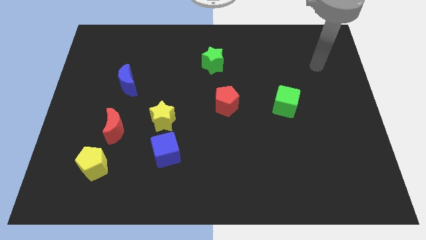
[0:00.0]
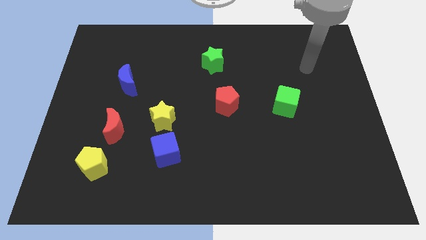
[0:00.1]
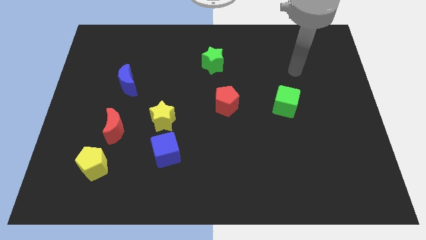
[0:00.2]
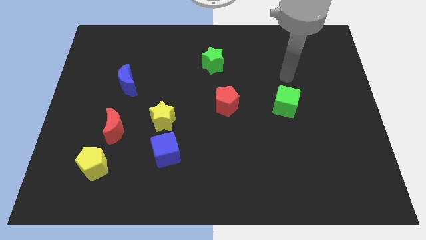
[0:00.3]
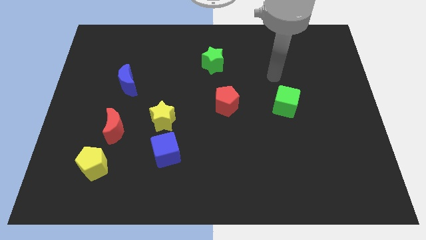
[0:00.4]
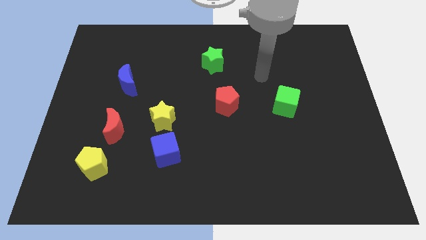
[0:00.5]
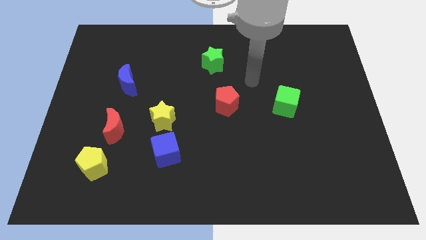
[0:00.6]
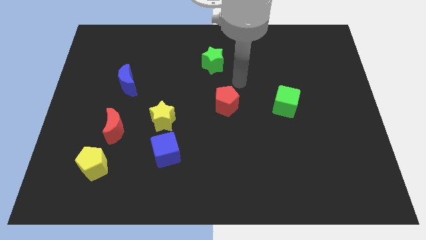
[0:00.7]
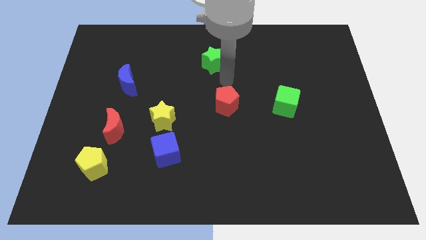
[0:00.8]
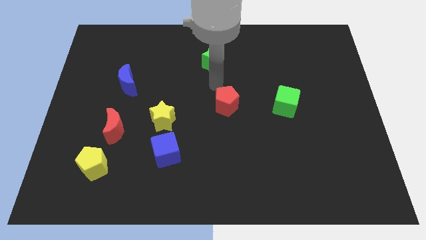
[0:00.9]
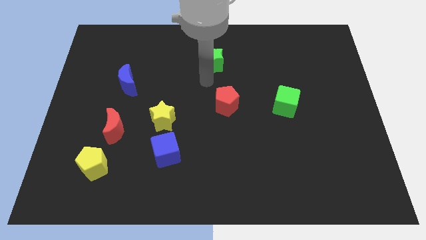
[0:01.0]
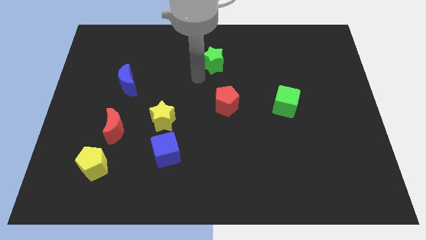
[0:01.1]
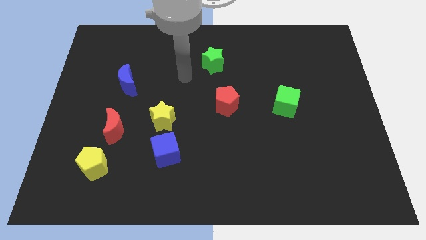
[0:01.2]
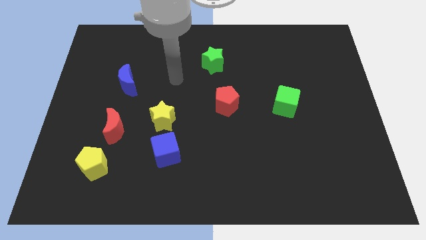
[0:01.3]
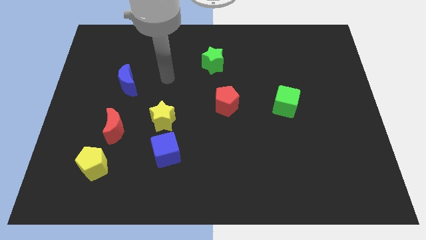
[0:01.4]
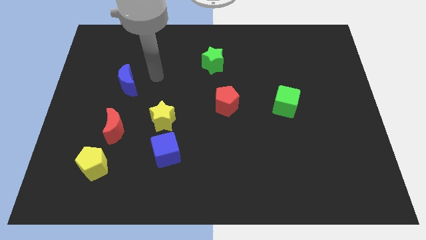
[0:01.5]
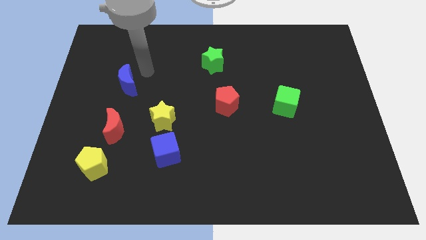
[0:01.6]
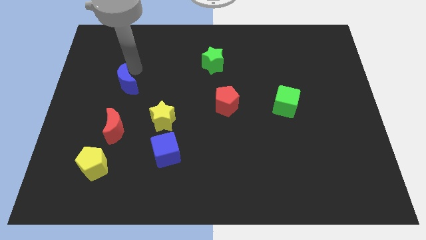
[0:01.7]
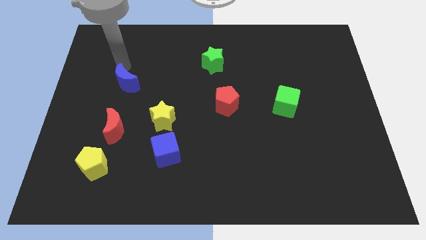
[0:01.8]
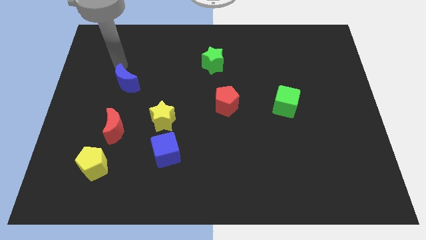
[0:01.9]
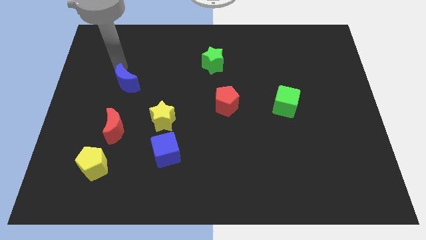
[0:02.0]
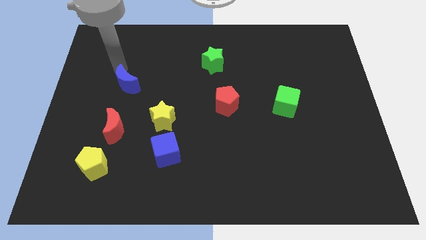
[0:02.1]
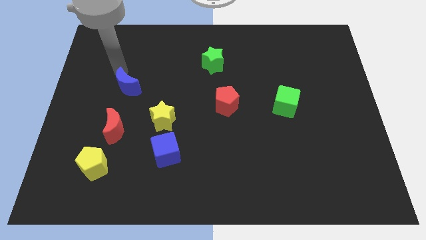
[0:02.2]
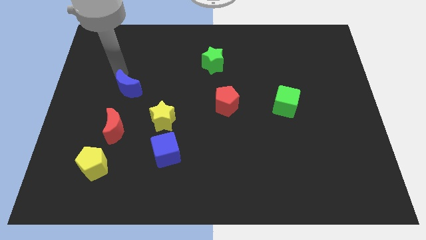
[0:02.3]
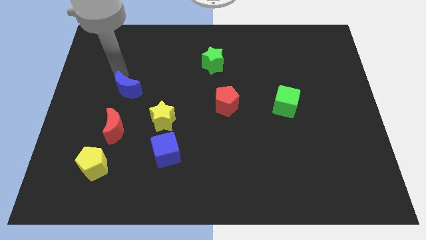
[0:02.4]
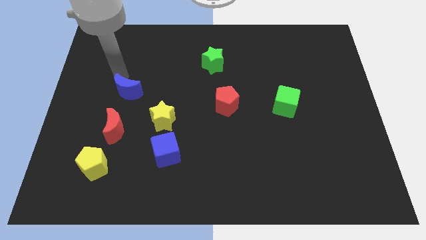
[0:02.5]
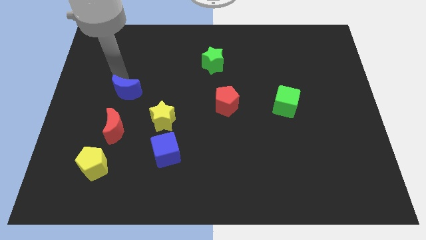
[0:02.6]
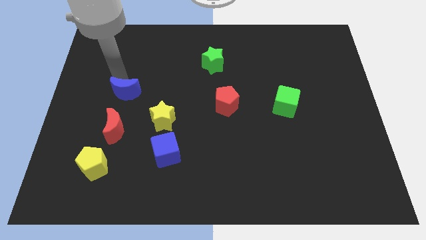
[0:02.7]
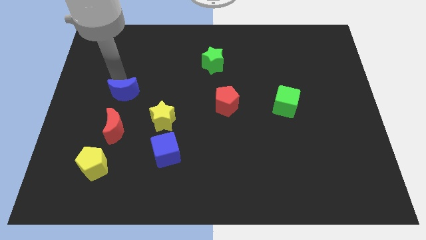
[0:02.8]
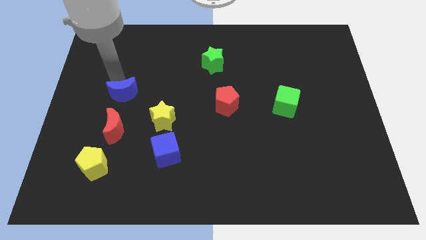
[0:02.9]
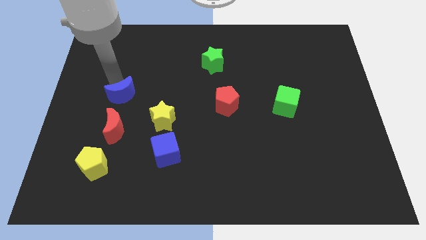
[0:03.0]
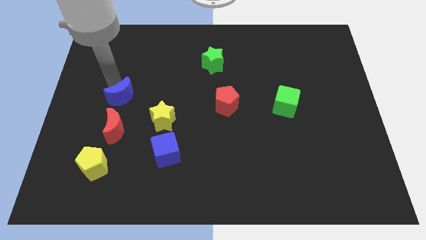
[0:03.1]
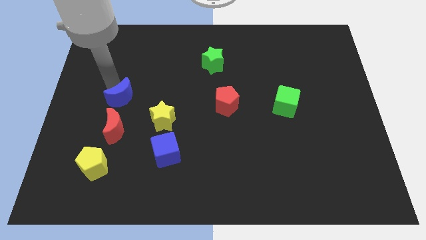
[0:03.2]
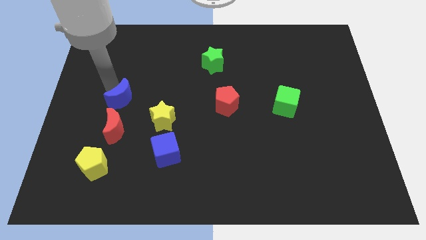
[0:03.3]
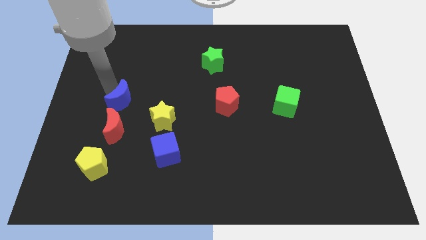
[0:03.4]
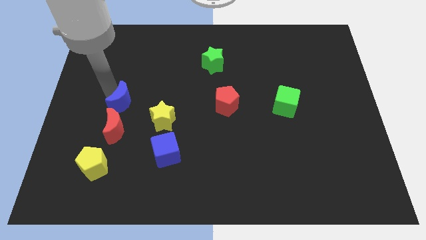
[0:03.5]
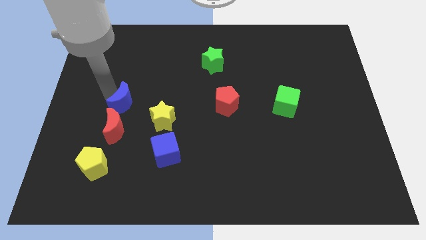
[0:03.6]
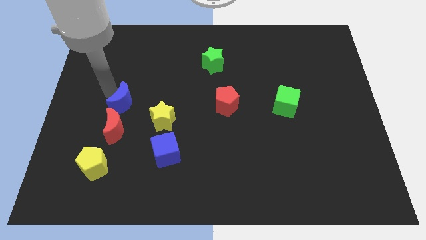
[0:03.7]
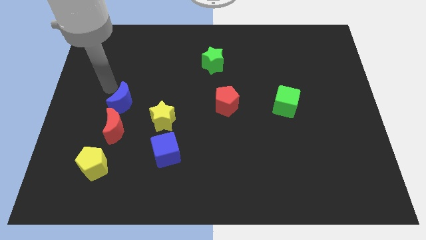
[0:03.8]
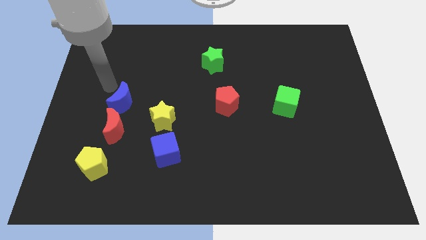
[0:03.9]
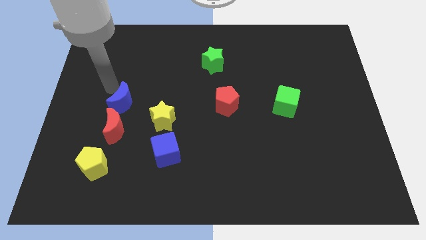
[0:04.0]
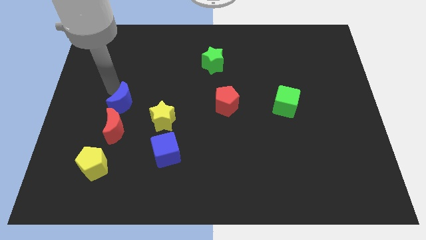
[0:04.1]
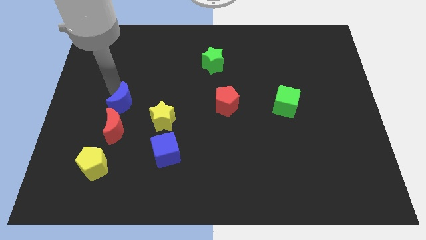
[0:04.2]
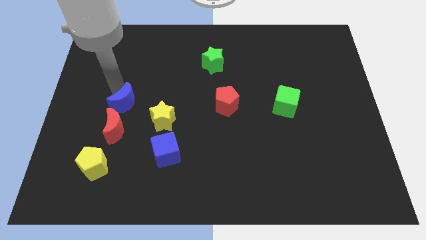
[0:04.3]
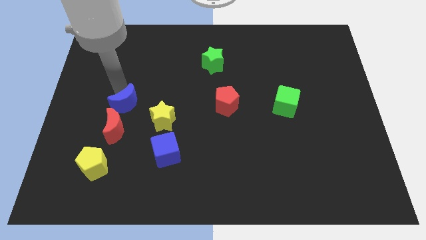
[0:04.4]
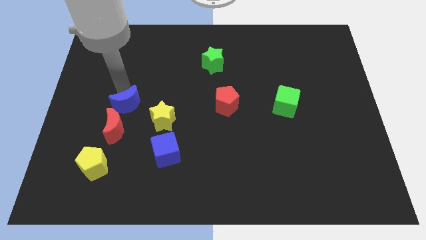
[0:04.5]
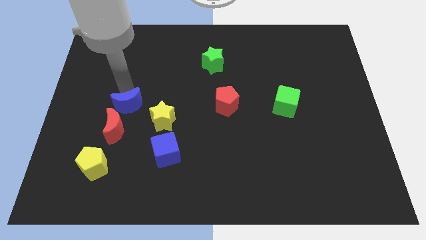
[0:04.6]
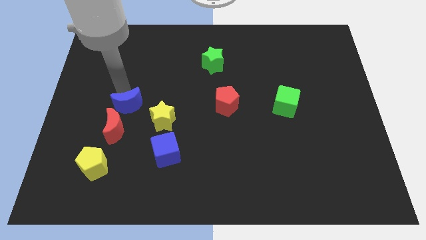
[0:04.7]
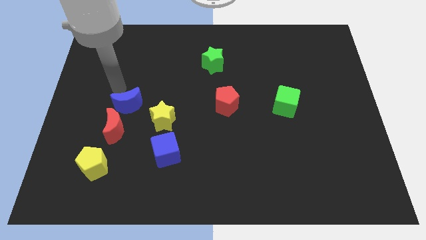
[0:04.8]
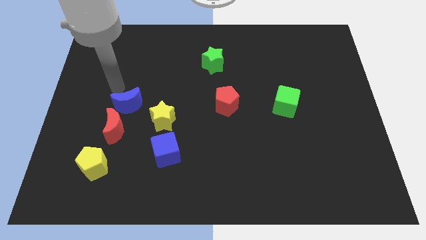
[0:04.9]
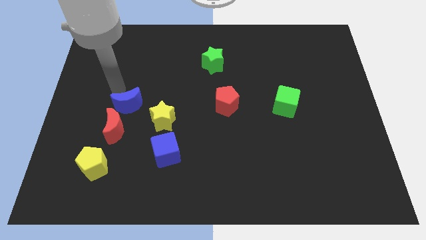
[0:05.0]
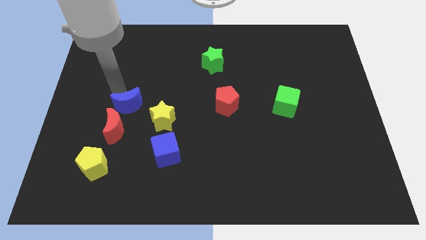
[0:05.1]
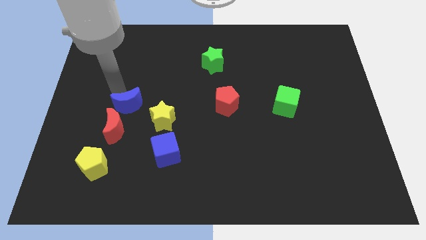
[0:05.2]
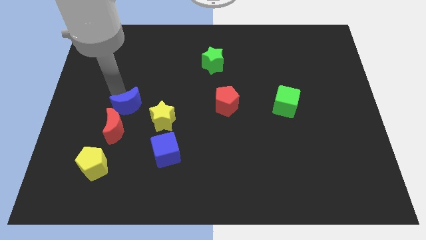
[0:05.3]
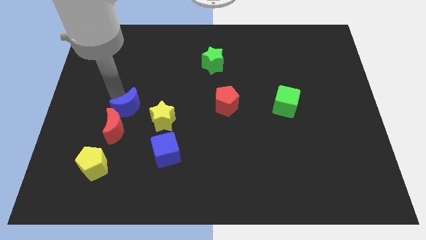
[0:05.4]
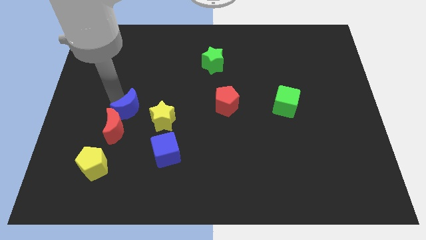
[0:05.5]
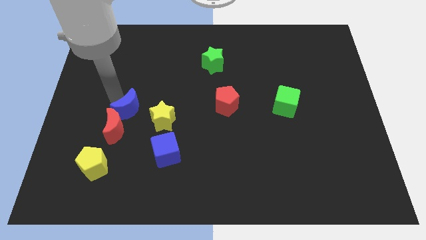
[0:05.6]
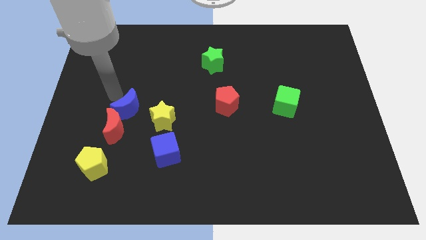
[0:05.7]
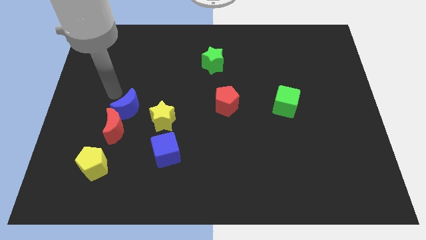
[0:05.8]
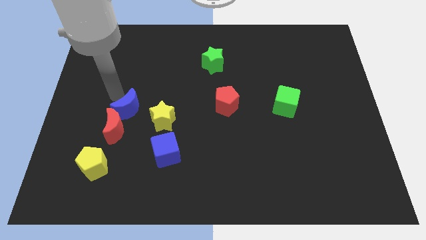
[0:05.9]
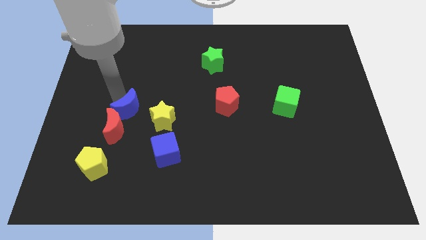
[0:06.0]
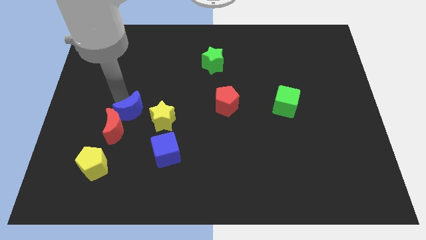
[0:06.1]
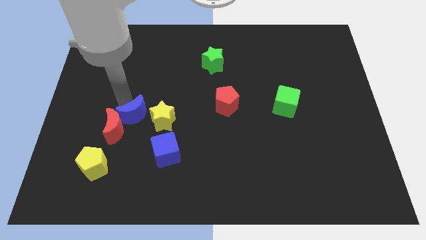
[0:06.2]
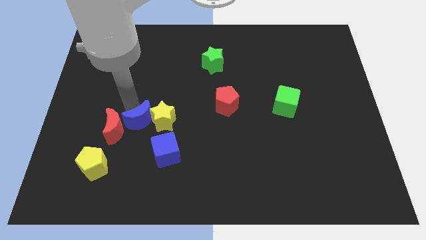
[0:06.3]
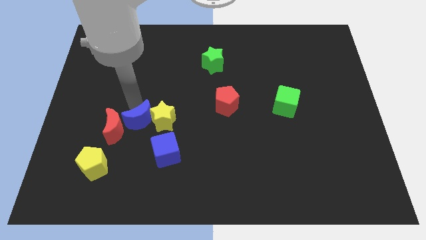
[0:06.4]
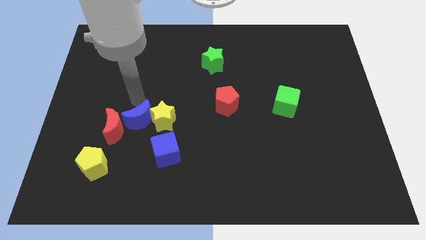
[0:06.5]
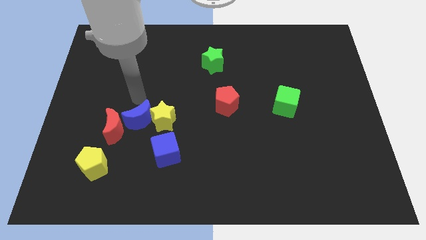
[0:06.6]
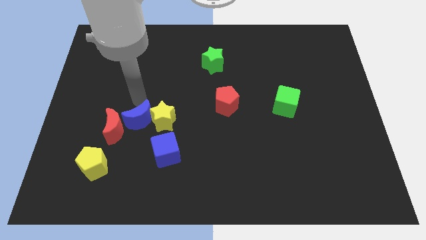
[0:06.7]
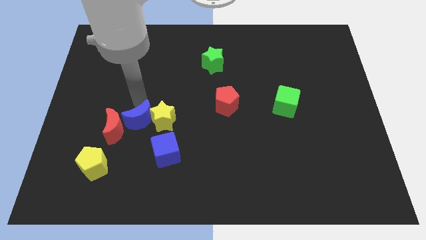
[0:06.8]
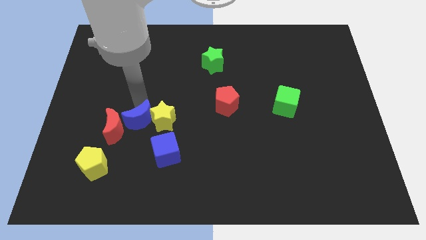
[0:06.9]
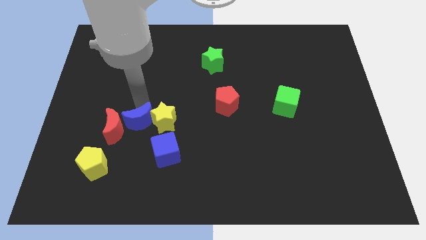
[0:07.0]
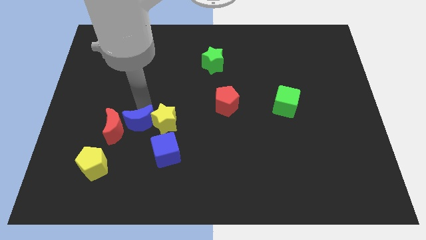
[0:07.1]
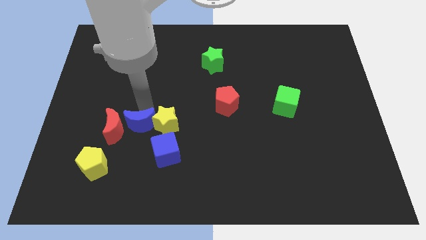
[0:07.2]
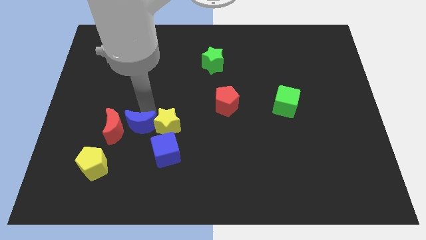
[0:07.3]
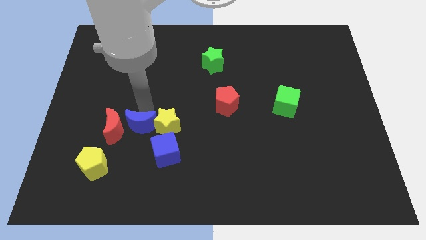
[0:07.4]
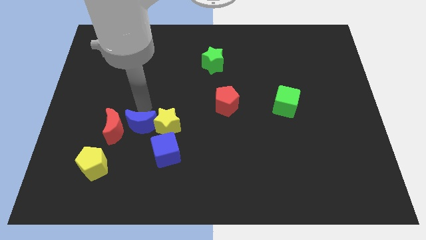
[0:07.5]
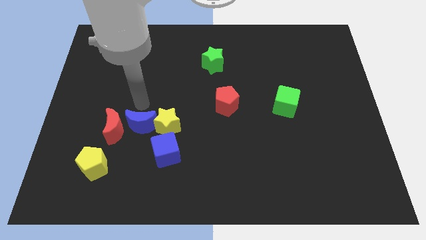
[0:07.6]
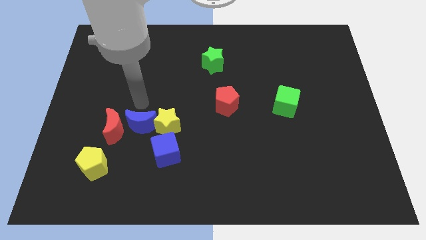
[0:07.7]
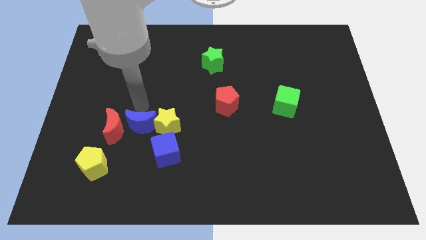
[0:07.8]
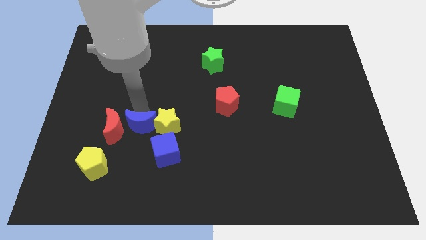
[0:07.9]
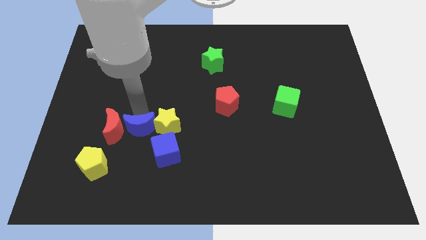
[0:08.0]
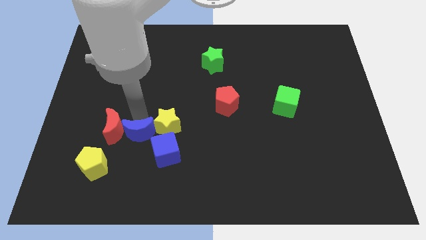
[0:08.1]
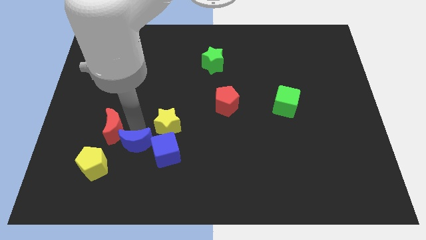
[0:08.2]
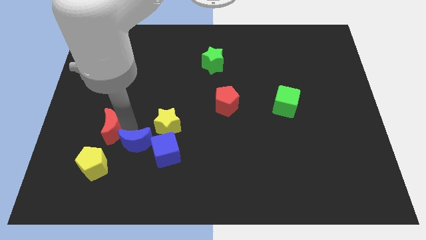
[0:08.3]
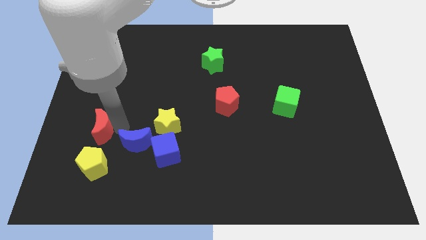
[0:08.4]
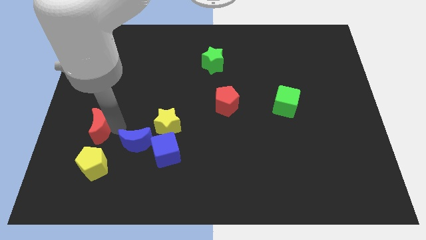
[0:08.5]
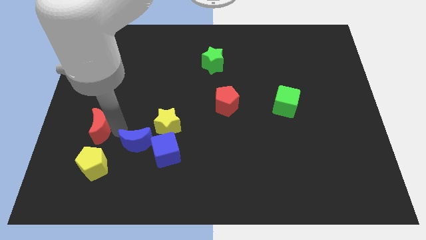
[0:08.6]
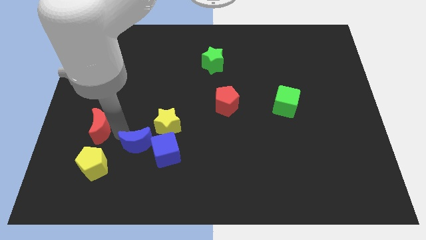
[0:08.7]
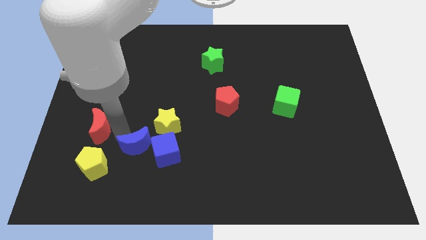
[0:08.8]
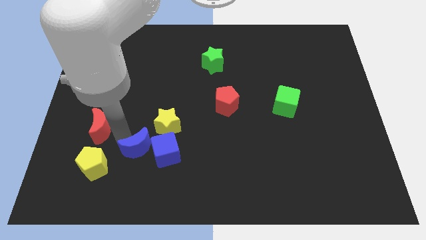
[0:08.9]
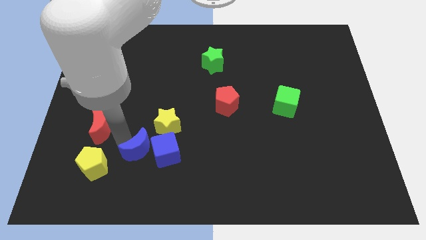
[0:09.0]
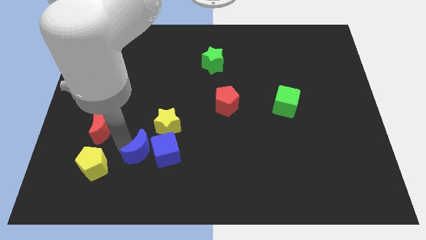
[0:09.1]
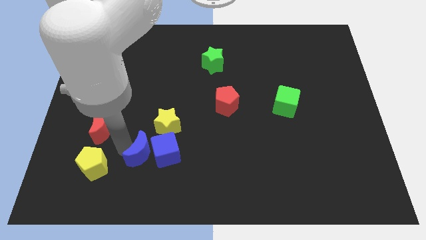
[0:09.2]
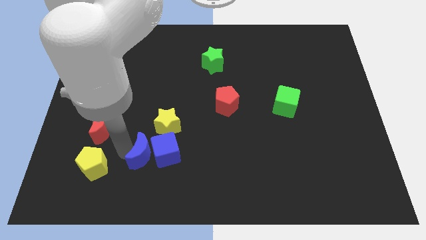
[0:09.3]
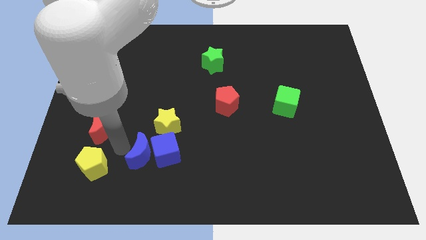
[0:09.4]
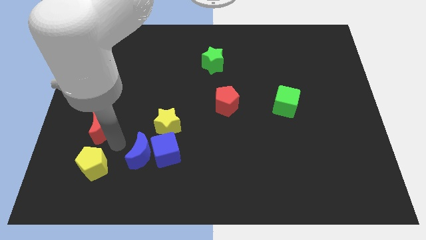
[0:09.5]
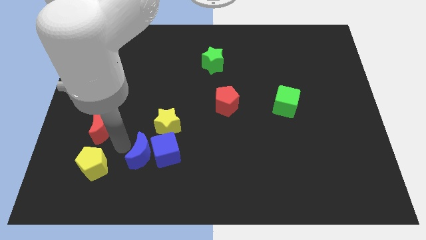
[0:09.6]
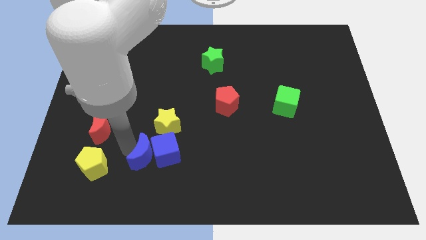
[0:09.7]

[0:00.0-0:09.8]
push the blue moon to the bottom of the yellow star
